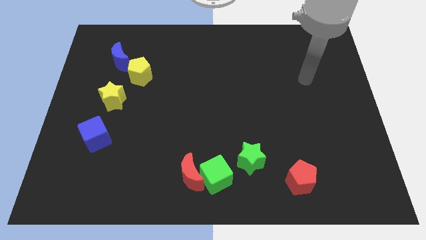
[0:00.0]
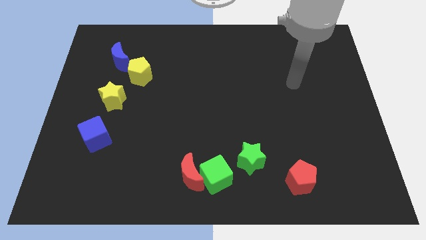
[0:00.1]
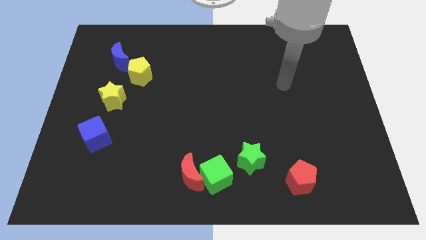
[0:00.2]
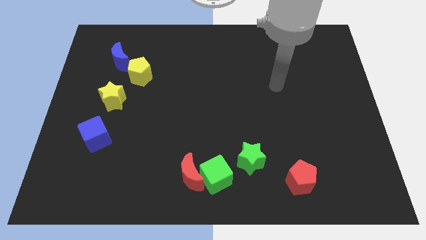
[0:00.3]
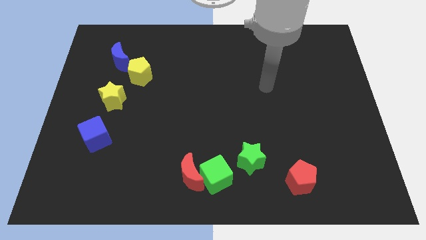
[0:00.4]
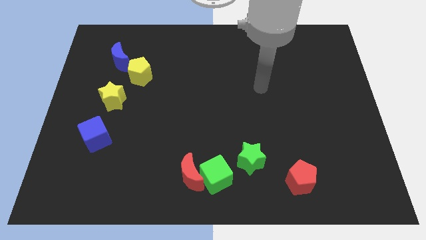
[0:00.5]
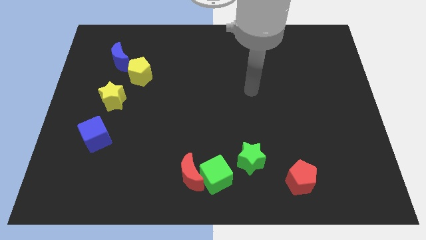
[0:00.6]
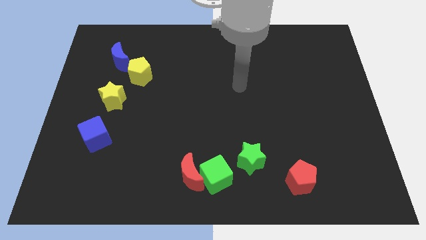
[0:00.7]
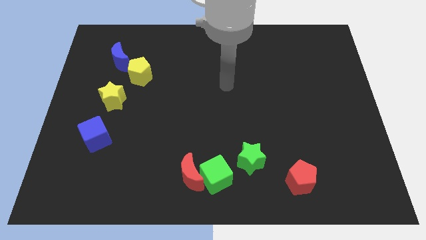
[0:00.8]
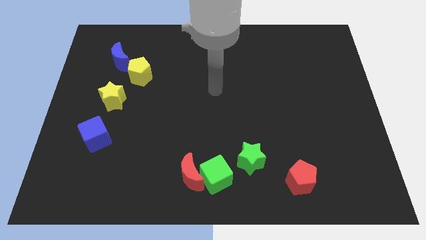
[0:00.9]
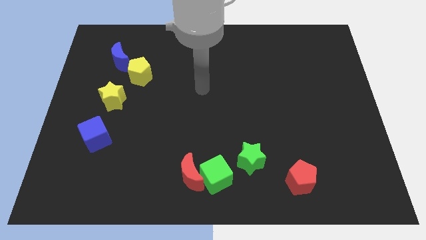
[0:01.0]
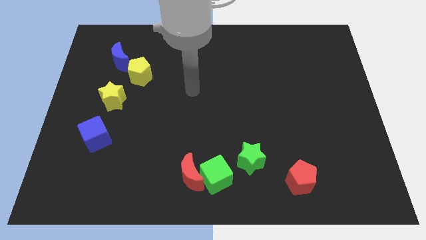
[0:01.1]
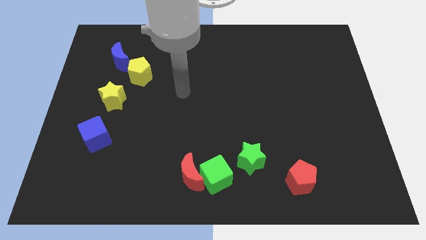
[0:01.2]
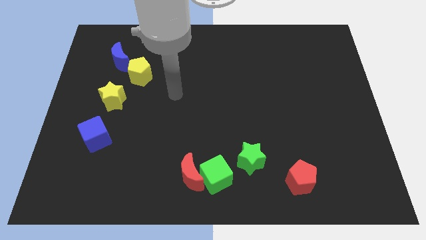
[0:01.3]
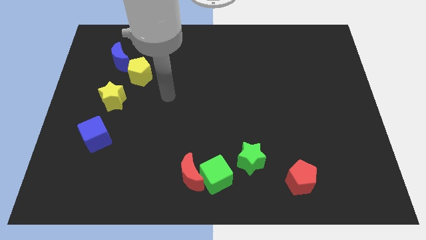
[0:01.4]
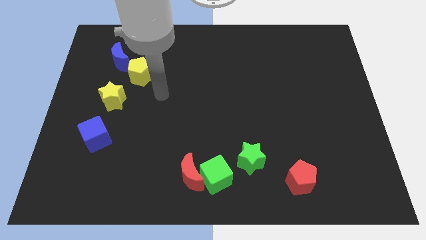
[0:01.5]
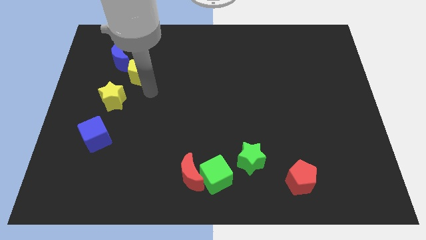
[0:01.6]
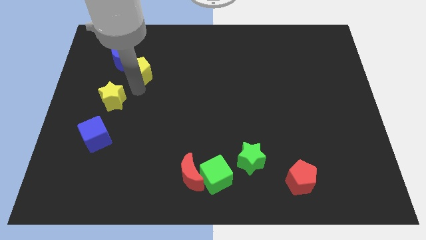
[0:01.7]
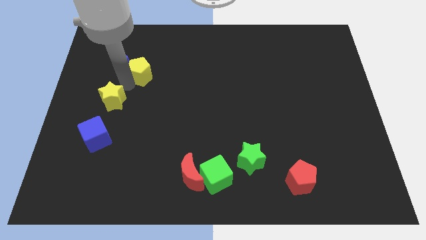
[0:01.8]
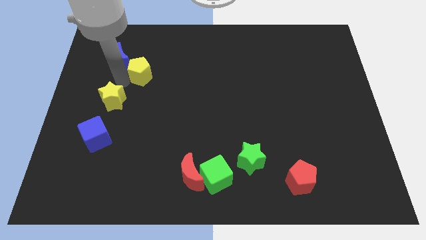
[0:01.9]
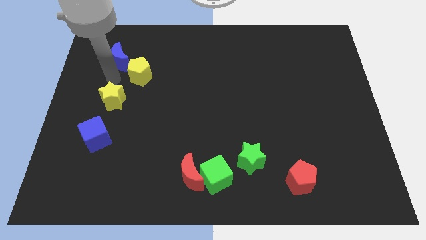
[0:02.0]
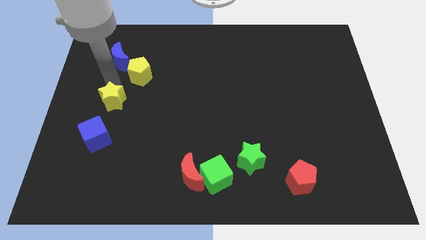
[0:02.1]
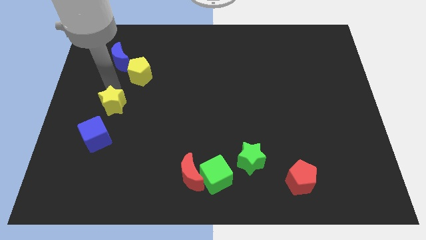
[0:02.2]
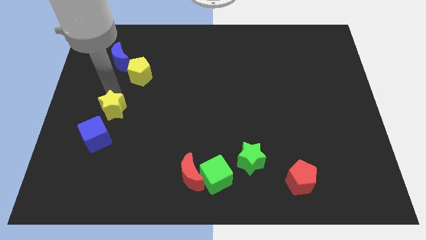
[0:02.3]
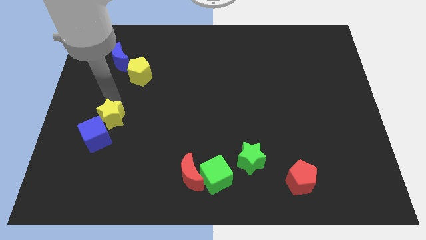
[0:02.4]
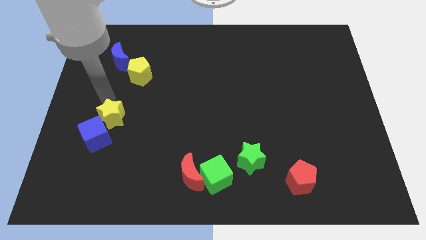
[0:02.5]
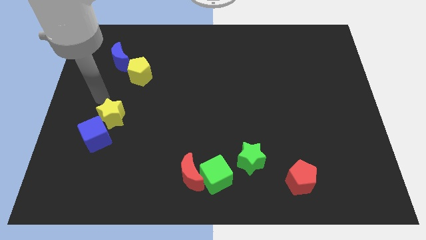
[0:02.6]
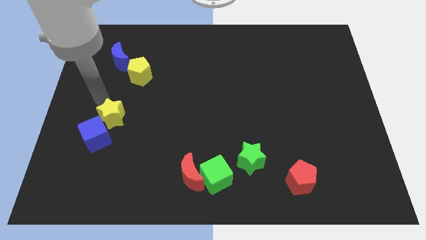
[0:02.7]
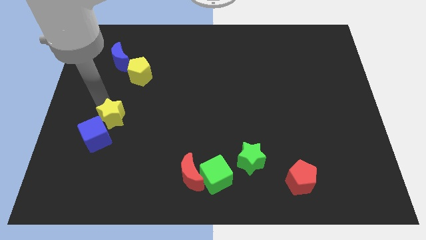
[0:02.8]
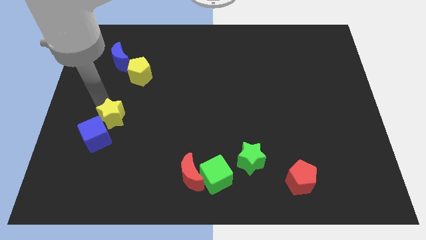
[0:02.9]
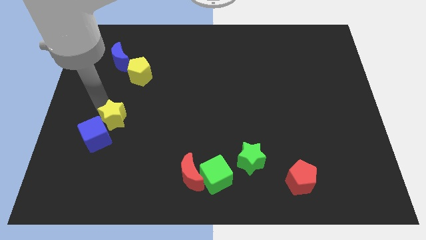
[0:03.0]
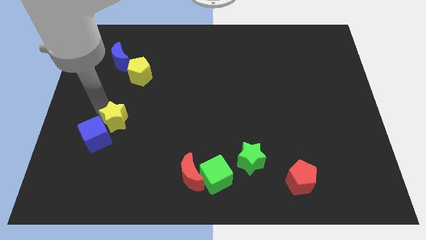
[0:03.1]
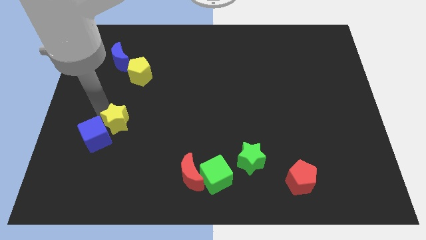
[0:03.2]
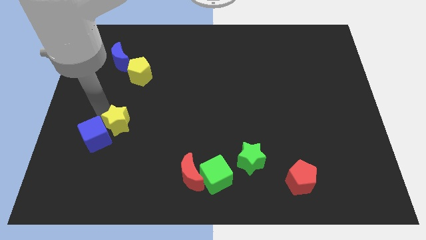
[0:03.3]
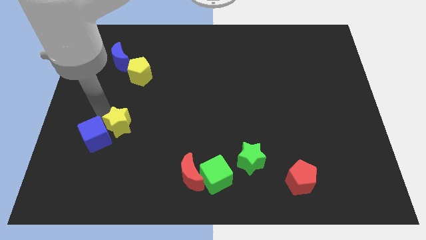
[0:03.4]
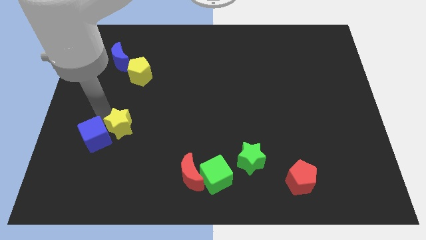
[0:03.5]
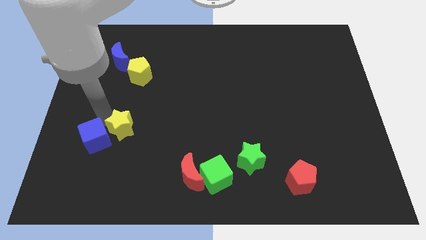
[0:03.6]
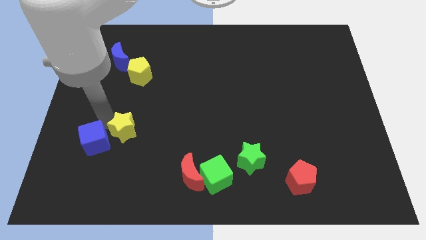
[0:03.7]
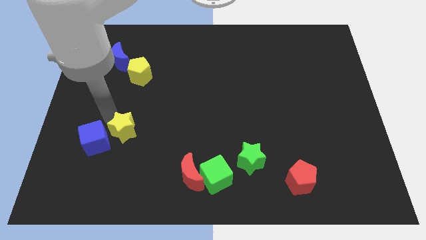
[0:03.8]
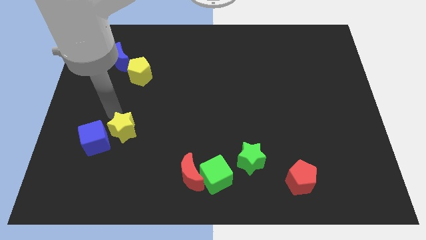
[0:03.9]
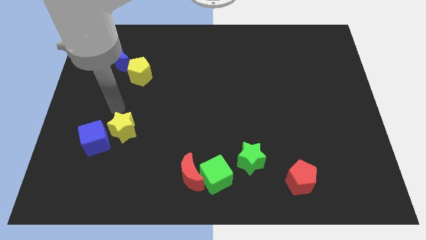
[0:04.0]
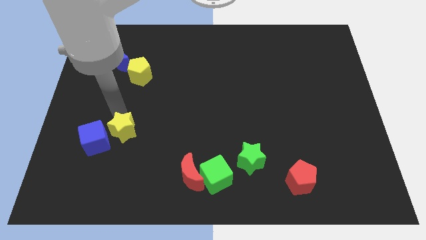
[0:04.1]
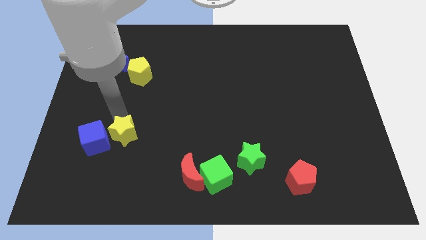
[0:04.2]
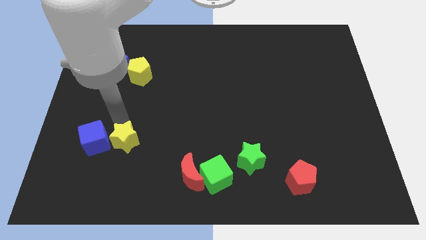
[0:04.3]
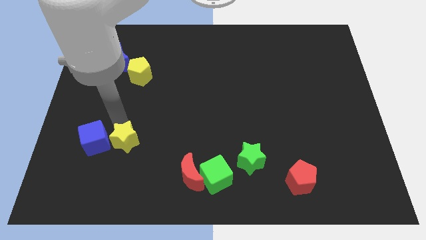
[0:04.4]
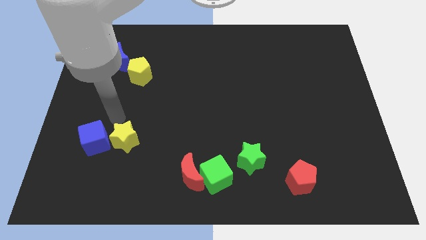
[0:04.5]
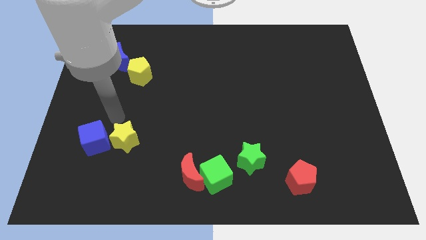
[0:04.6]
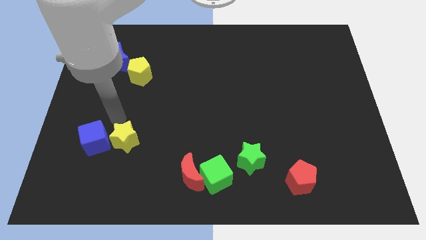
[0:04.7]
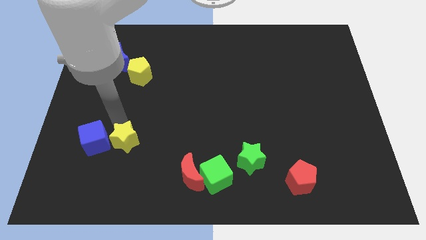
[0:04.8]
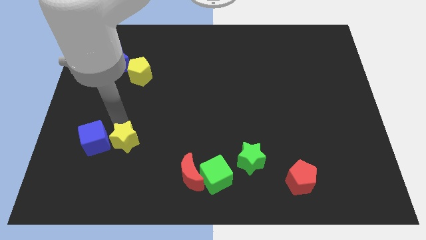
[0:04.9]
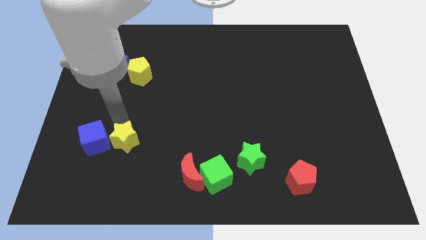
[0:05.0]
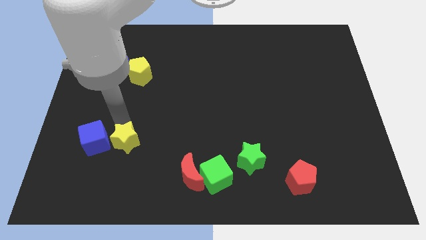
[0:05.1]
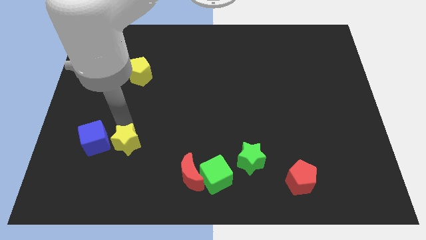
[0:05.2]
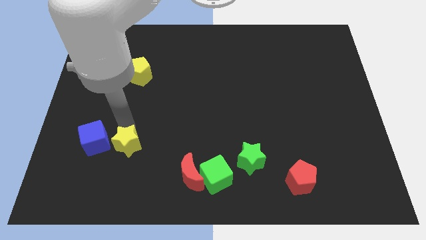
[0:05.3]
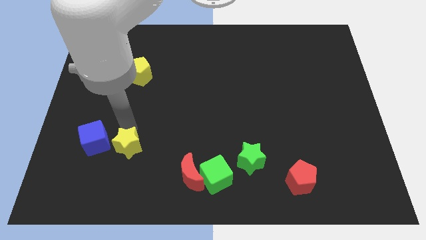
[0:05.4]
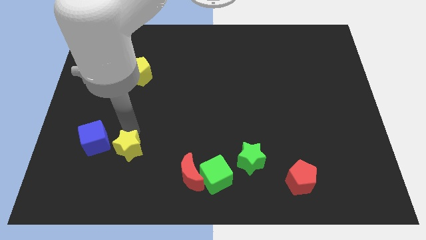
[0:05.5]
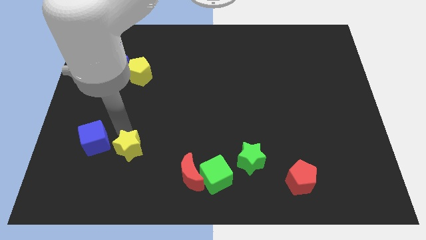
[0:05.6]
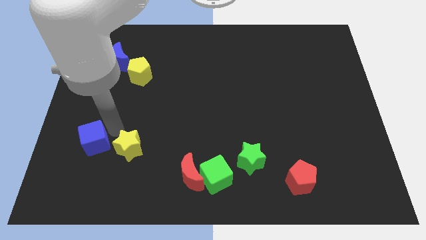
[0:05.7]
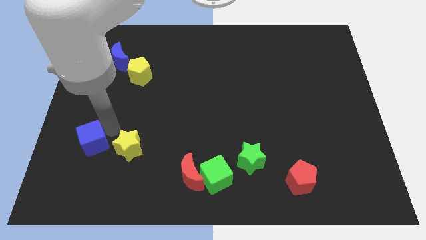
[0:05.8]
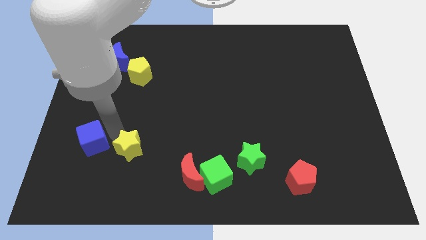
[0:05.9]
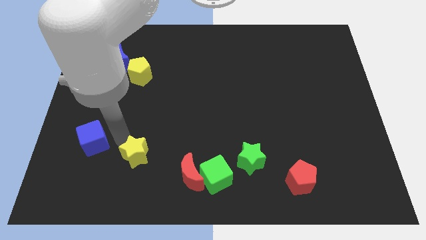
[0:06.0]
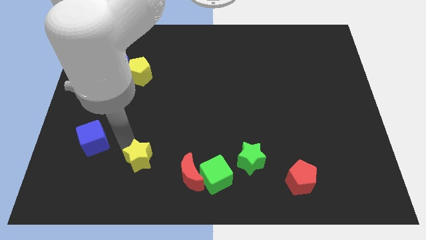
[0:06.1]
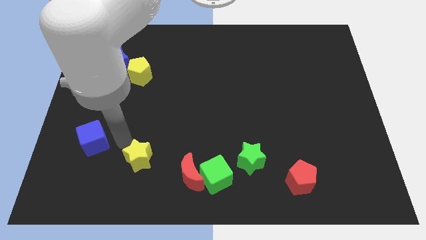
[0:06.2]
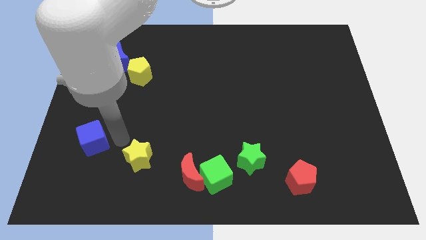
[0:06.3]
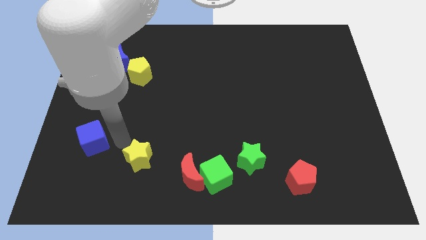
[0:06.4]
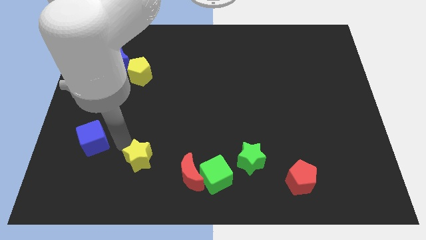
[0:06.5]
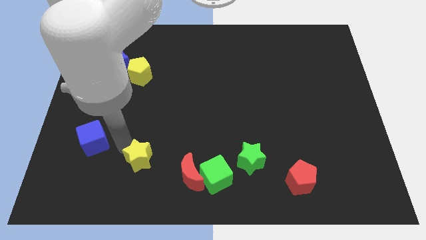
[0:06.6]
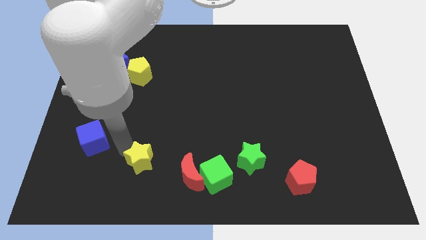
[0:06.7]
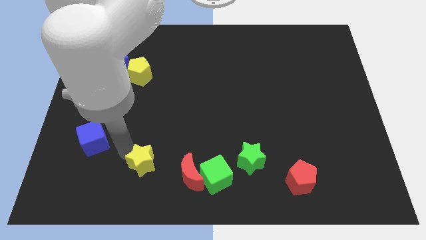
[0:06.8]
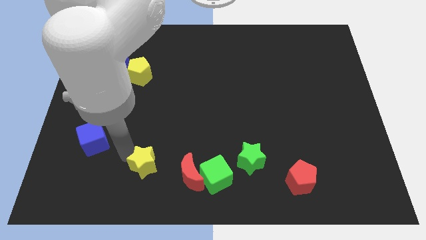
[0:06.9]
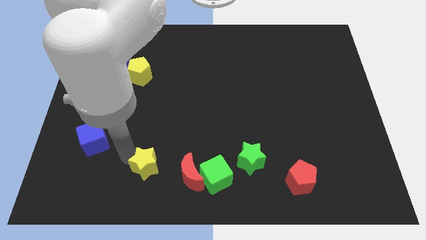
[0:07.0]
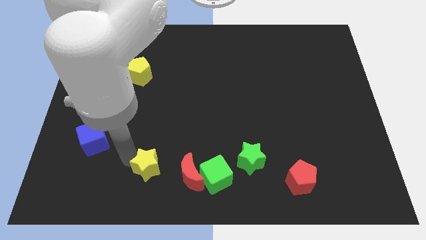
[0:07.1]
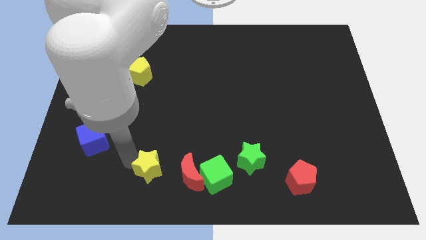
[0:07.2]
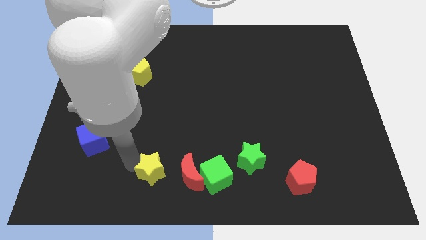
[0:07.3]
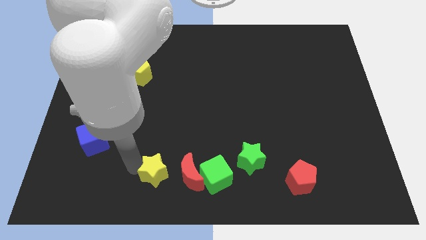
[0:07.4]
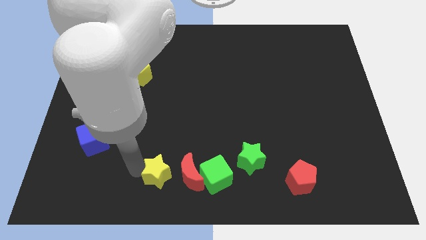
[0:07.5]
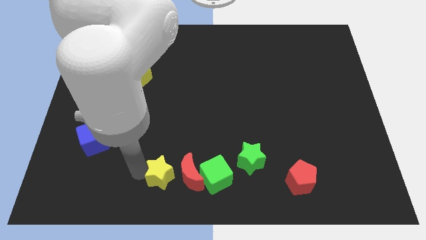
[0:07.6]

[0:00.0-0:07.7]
push the yellow star to the bottom
